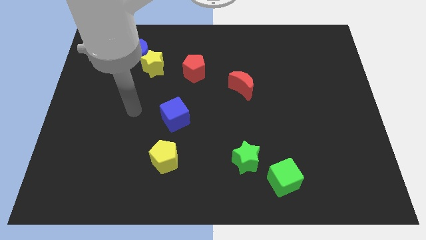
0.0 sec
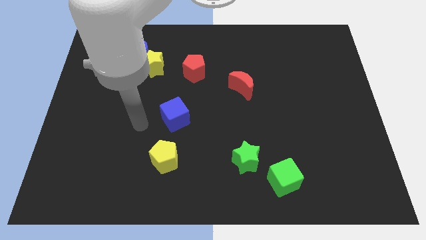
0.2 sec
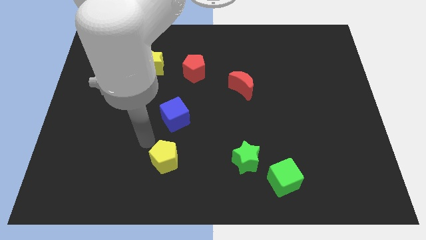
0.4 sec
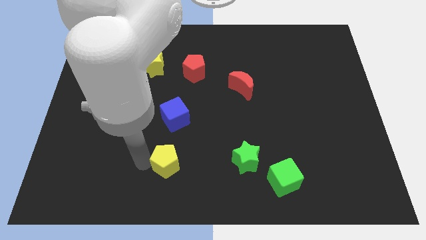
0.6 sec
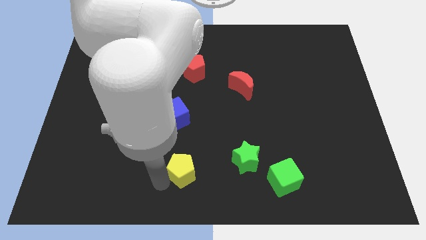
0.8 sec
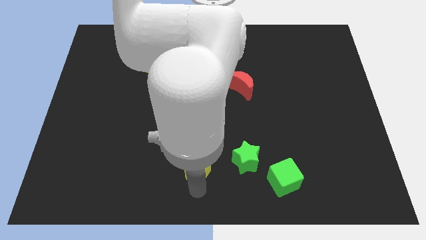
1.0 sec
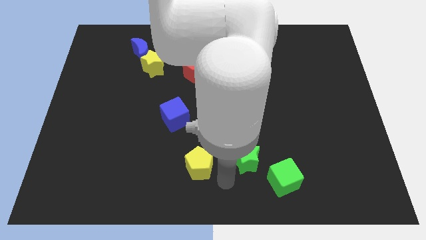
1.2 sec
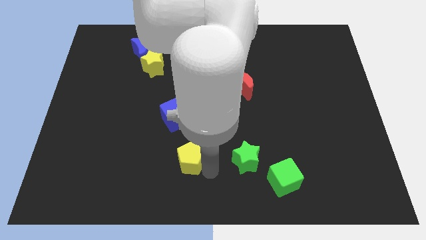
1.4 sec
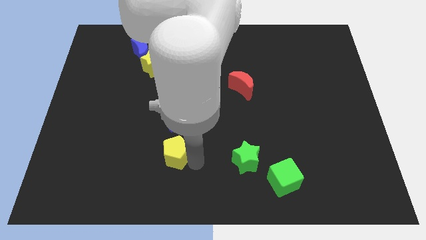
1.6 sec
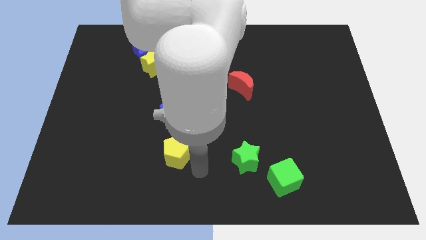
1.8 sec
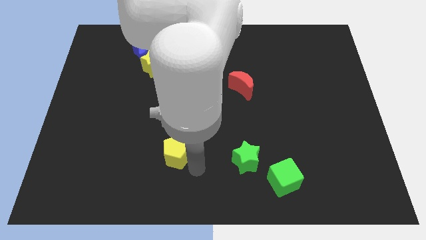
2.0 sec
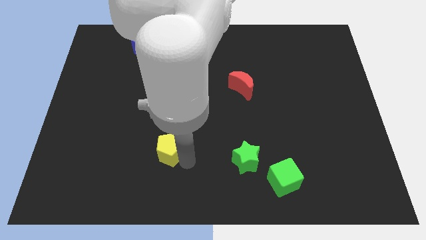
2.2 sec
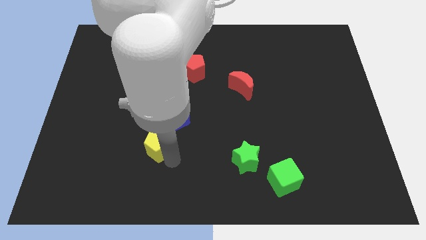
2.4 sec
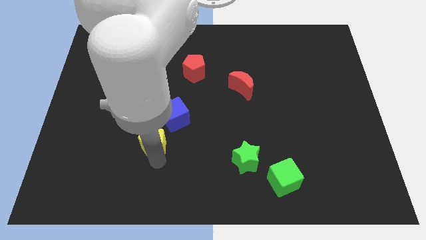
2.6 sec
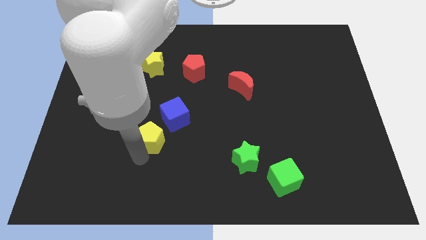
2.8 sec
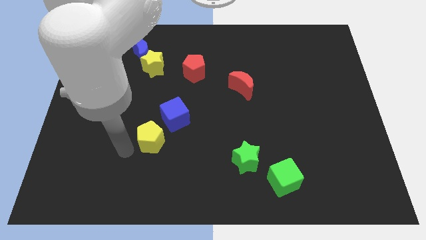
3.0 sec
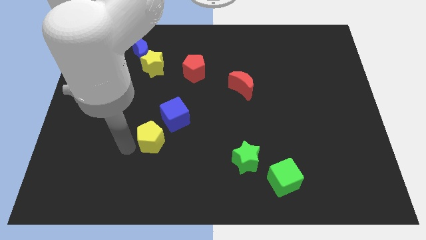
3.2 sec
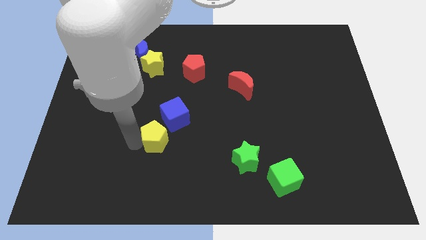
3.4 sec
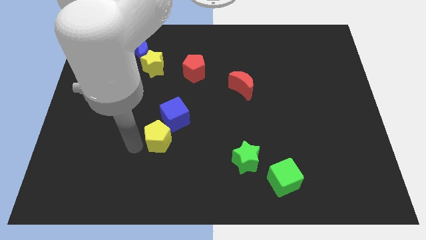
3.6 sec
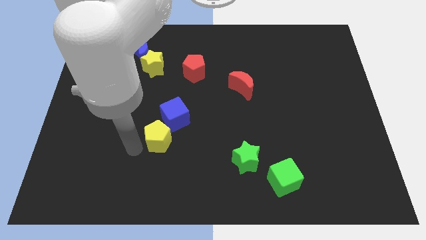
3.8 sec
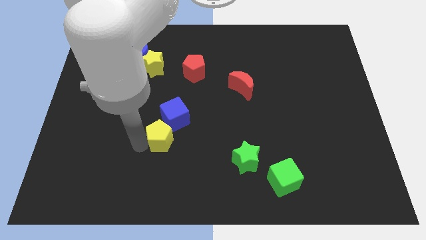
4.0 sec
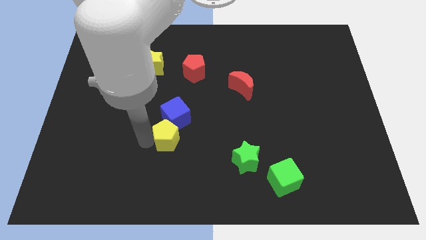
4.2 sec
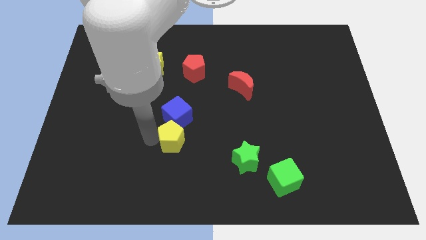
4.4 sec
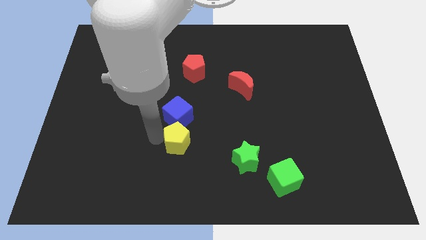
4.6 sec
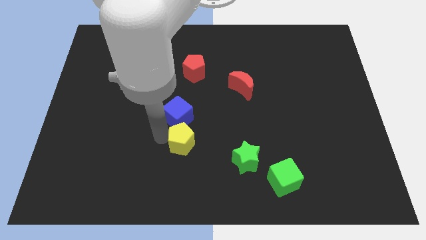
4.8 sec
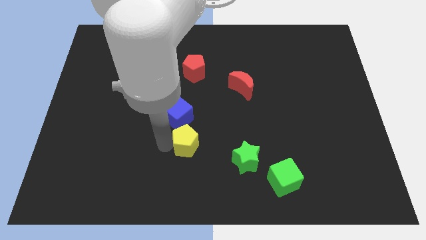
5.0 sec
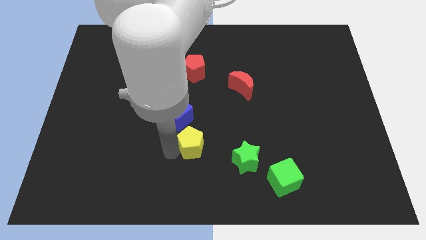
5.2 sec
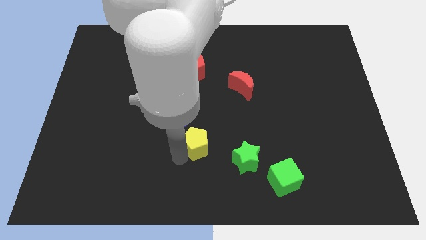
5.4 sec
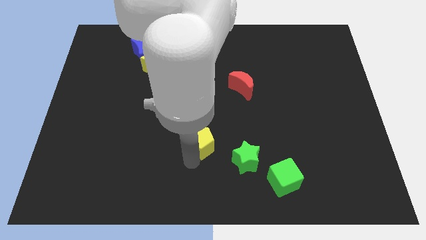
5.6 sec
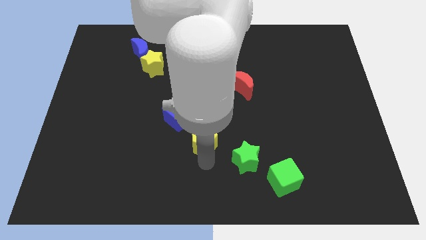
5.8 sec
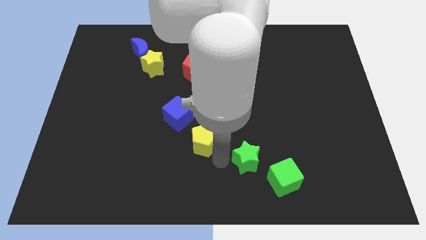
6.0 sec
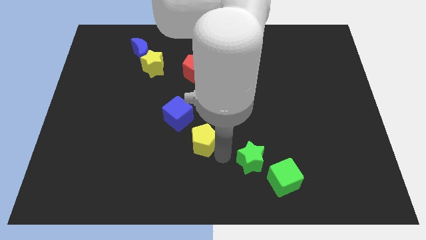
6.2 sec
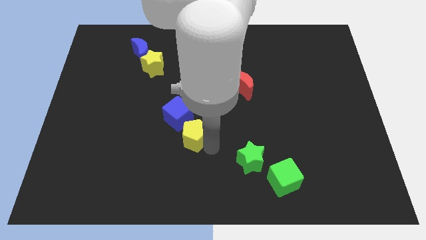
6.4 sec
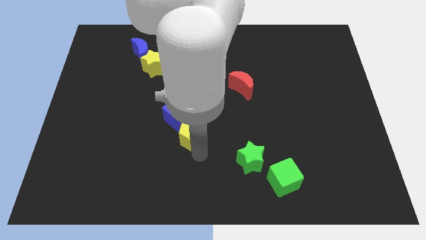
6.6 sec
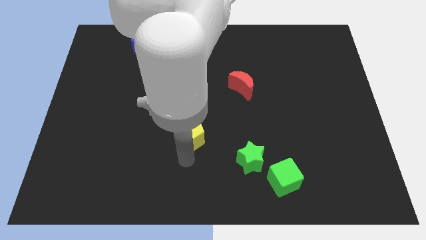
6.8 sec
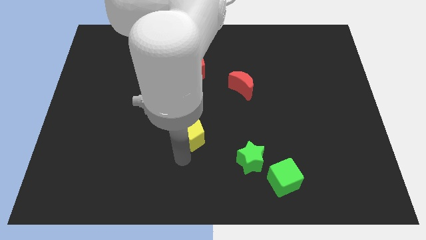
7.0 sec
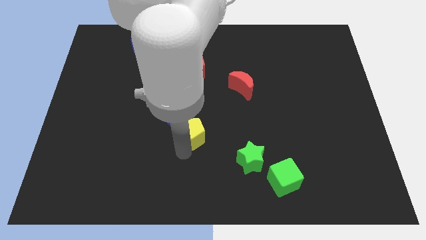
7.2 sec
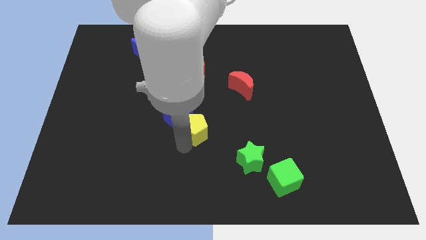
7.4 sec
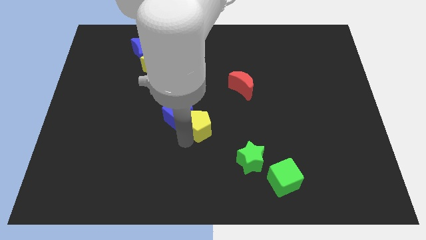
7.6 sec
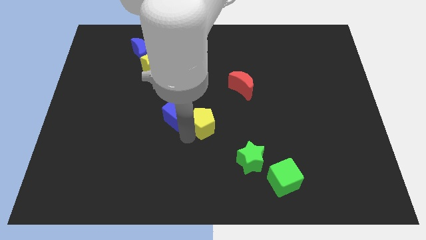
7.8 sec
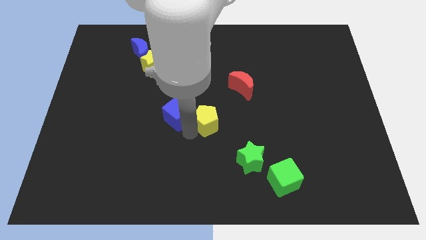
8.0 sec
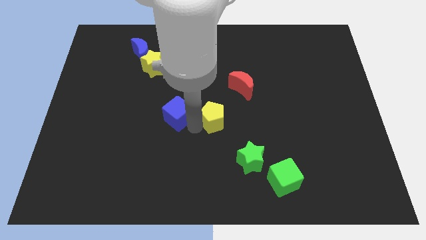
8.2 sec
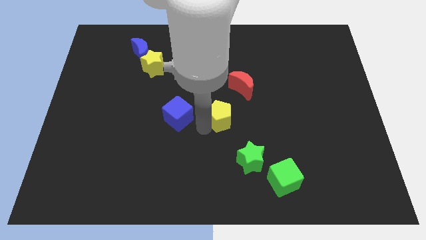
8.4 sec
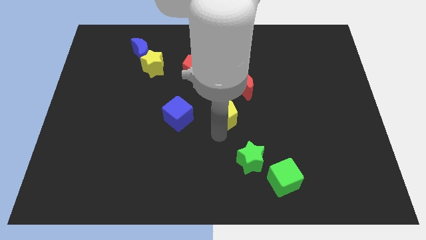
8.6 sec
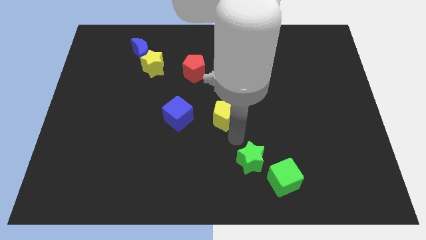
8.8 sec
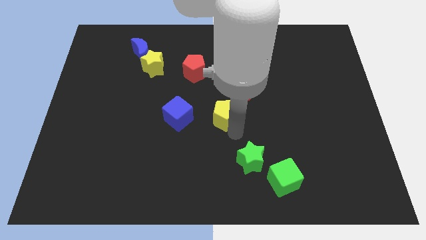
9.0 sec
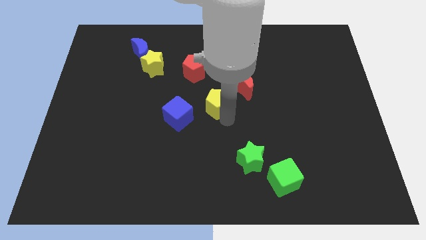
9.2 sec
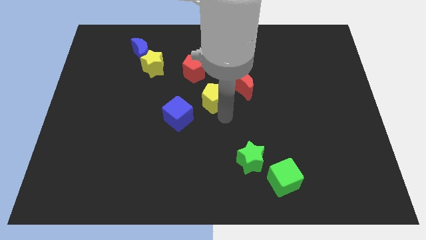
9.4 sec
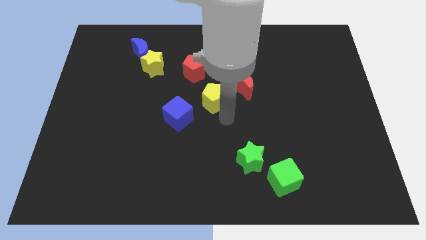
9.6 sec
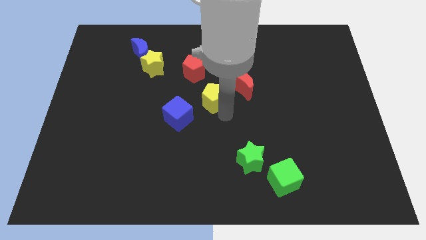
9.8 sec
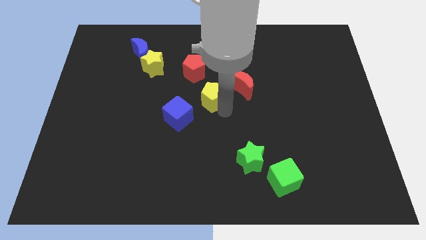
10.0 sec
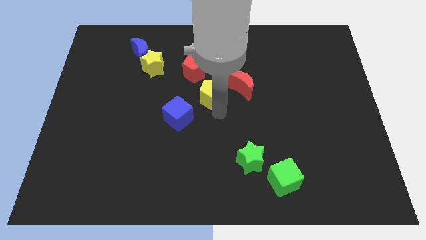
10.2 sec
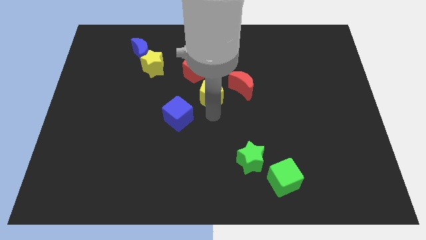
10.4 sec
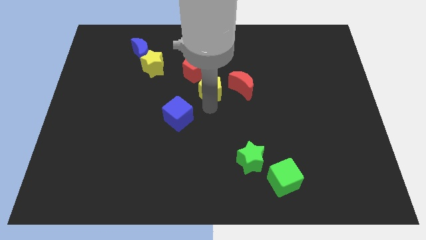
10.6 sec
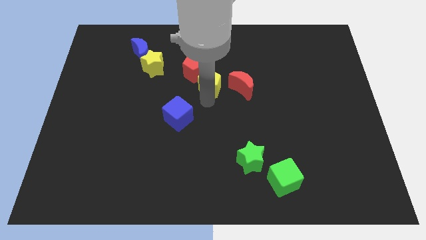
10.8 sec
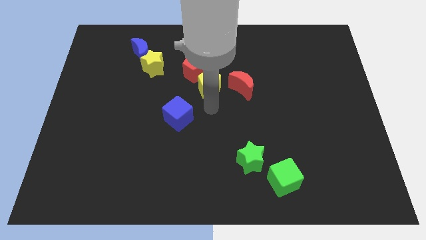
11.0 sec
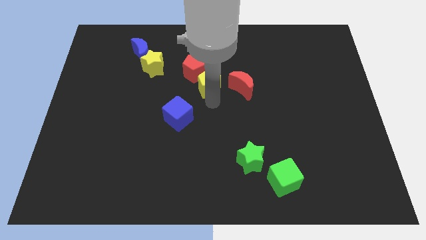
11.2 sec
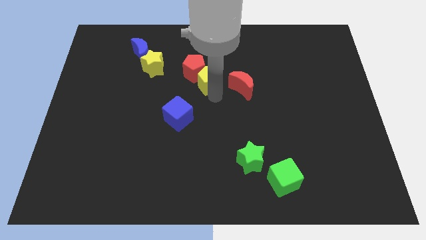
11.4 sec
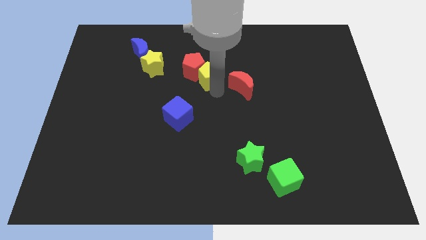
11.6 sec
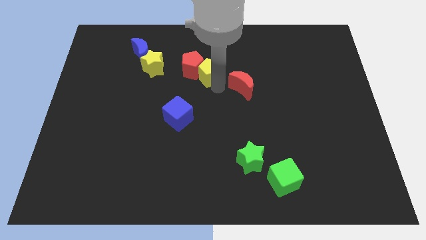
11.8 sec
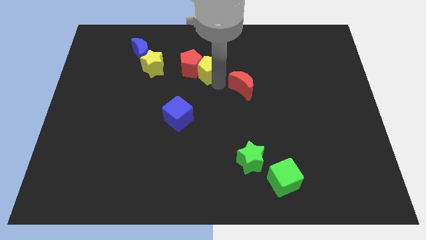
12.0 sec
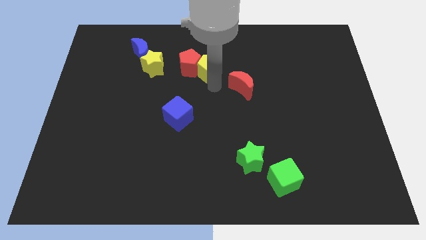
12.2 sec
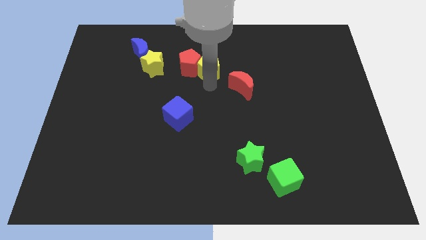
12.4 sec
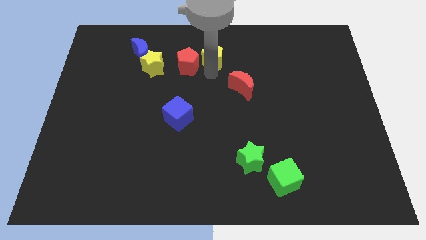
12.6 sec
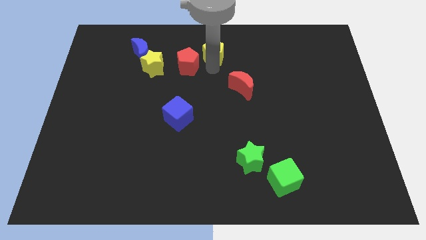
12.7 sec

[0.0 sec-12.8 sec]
move the yellow pentagon to the top
